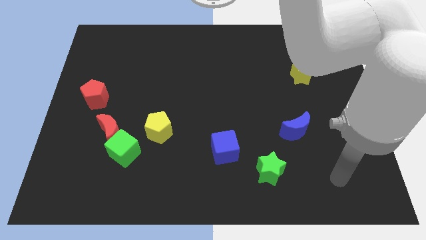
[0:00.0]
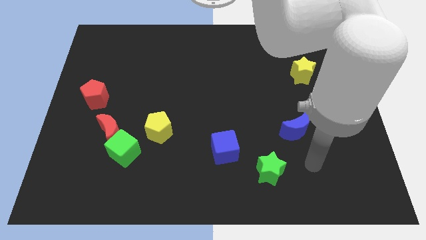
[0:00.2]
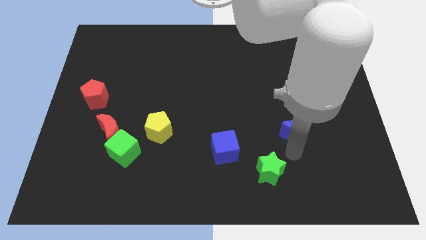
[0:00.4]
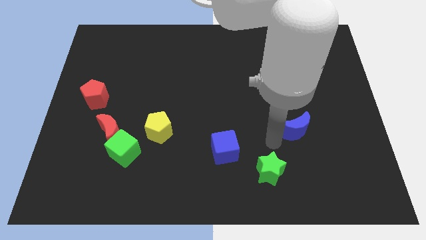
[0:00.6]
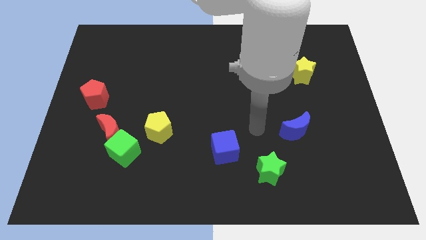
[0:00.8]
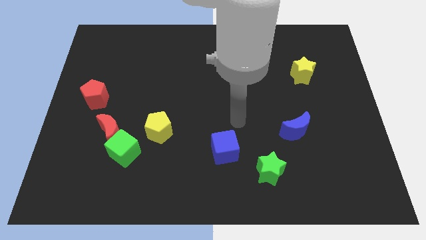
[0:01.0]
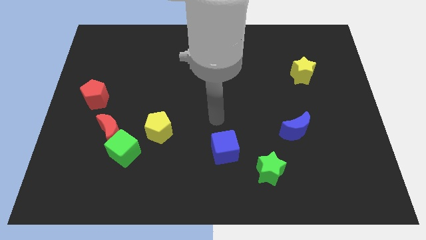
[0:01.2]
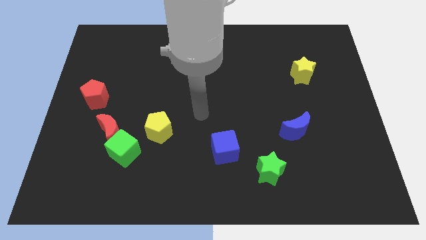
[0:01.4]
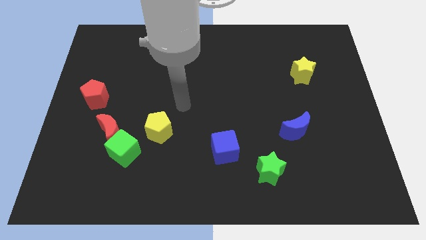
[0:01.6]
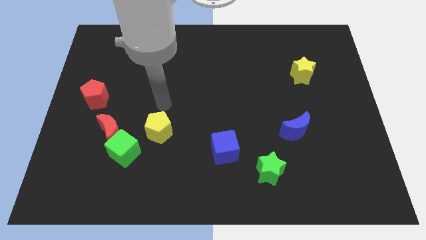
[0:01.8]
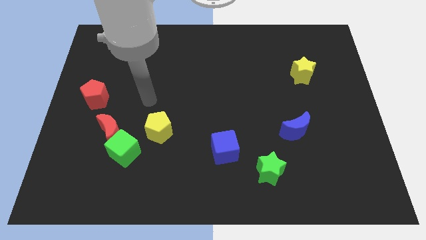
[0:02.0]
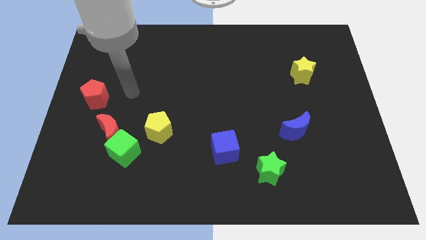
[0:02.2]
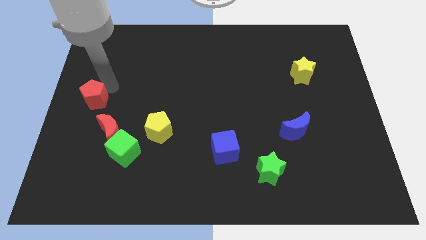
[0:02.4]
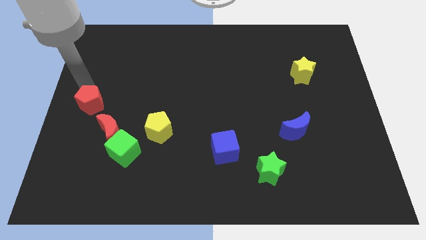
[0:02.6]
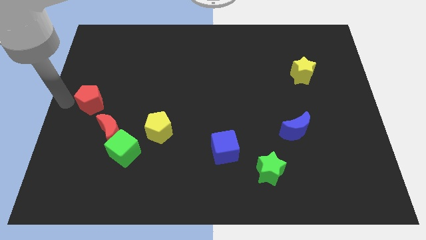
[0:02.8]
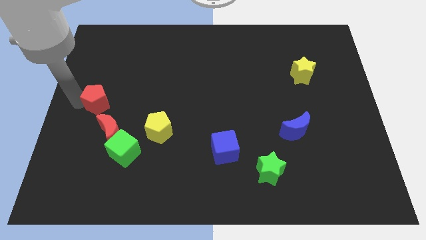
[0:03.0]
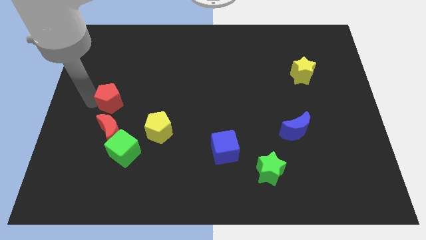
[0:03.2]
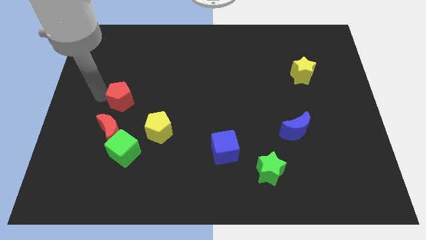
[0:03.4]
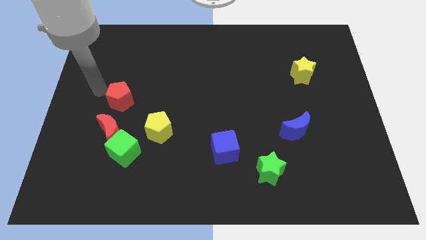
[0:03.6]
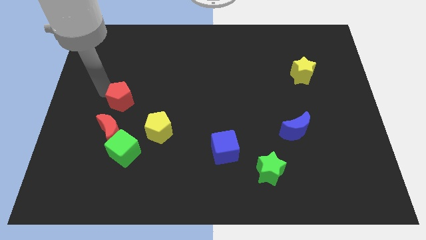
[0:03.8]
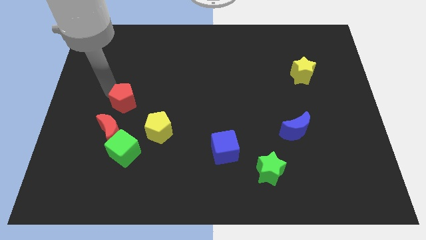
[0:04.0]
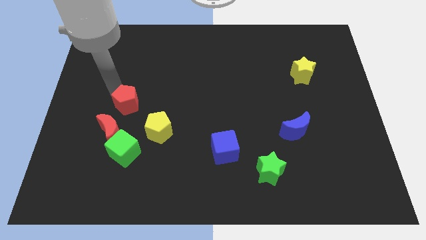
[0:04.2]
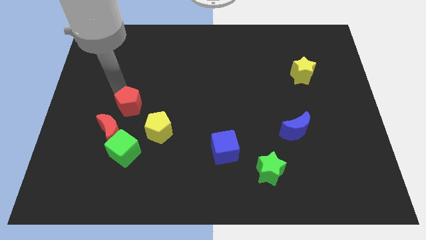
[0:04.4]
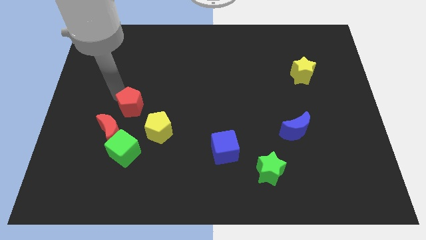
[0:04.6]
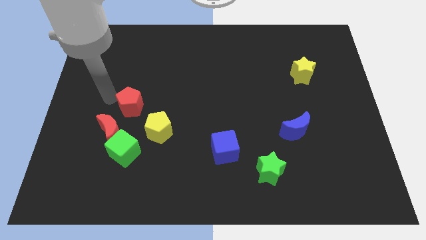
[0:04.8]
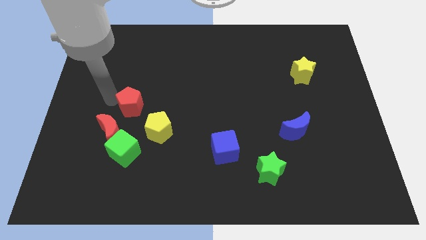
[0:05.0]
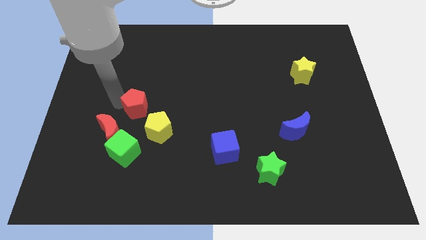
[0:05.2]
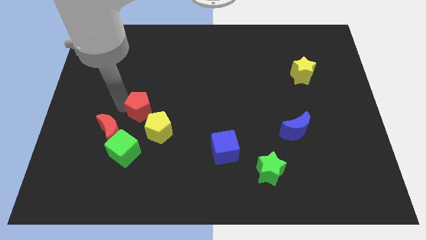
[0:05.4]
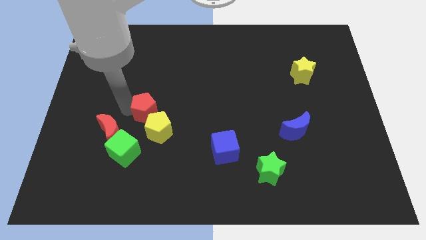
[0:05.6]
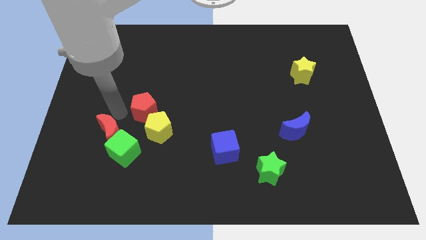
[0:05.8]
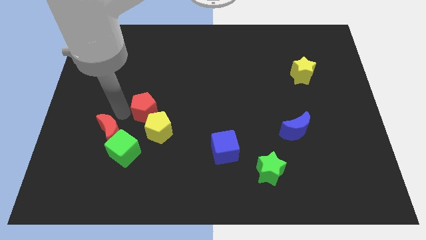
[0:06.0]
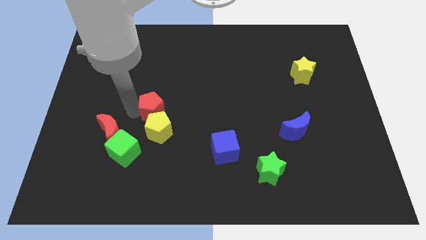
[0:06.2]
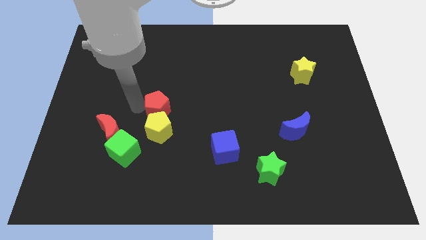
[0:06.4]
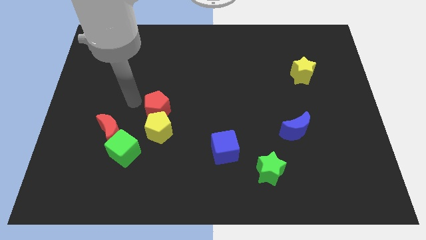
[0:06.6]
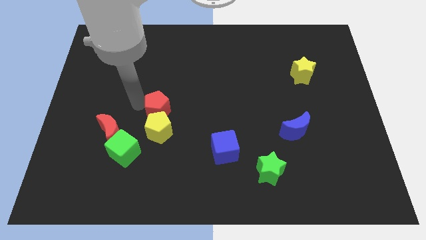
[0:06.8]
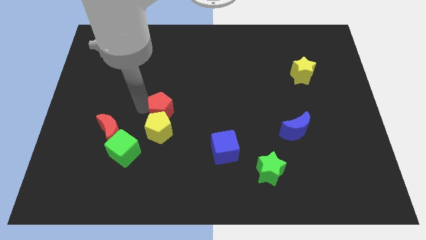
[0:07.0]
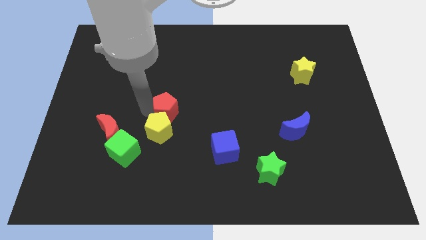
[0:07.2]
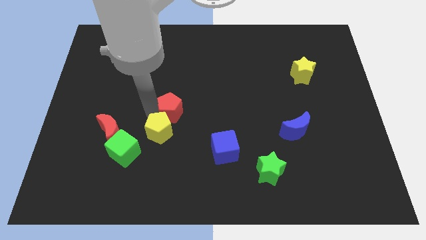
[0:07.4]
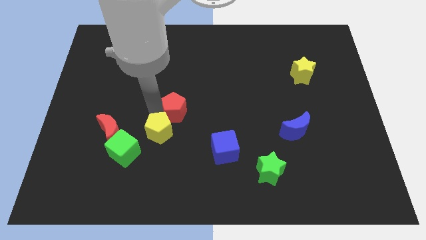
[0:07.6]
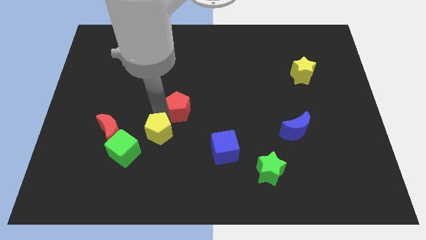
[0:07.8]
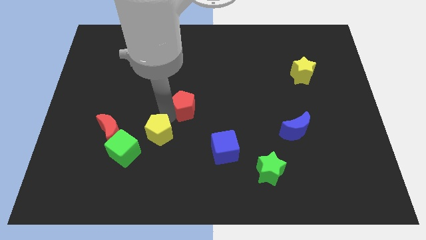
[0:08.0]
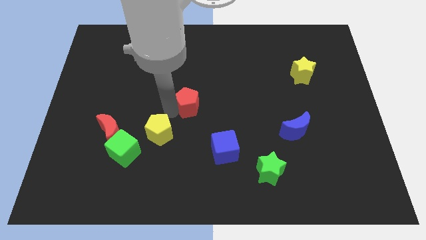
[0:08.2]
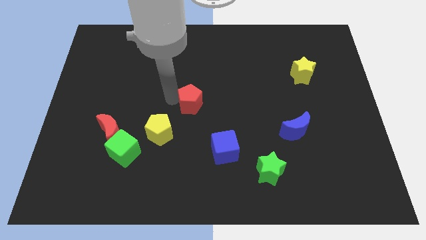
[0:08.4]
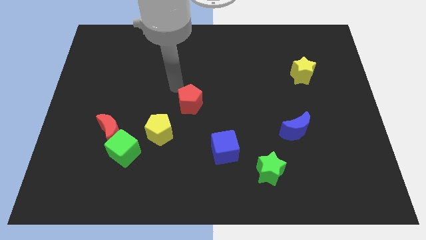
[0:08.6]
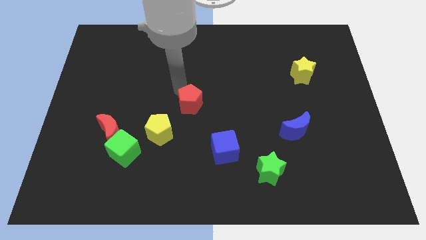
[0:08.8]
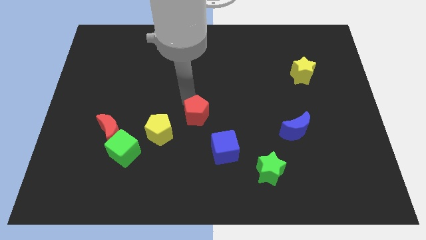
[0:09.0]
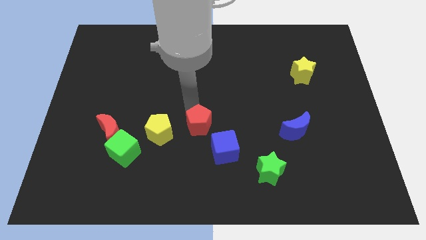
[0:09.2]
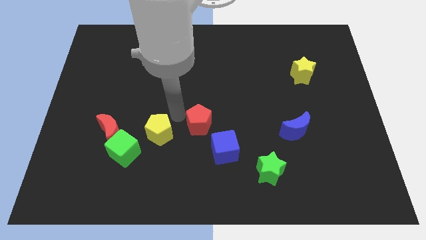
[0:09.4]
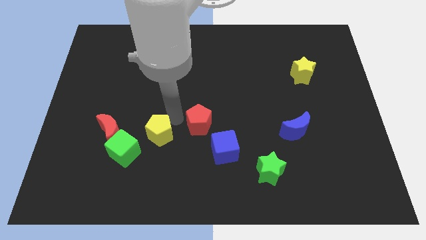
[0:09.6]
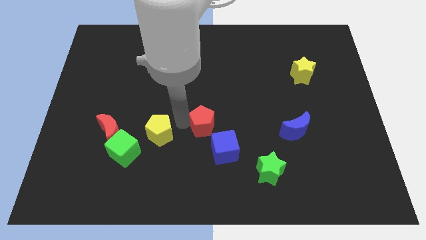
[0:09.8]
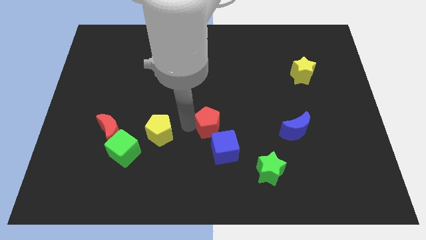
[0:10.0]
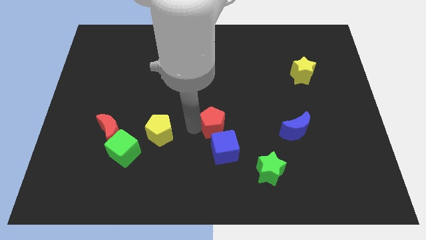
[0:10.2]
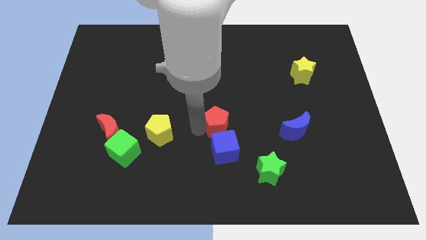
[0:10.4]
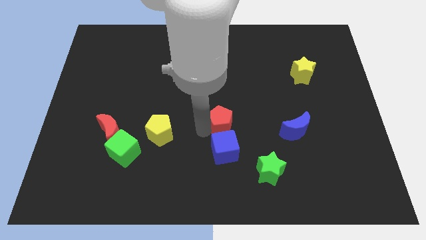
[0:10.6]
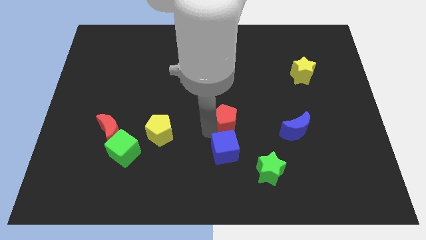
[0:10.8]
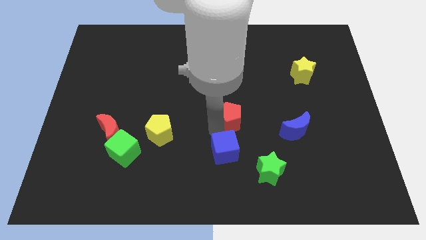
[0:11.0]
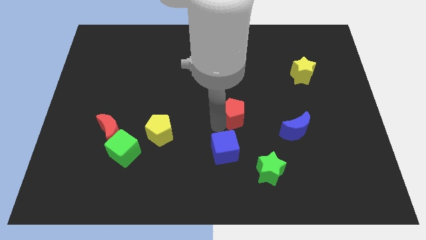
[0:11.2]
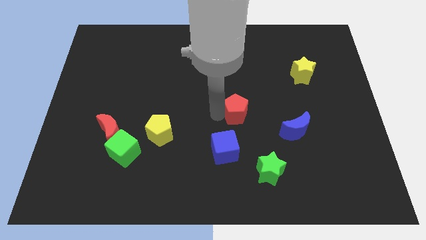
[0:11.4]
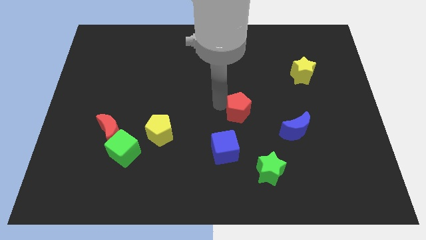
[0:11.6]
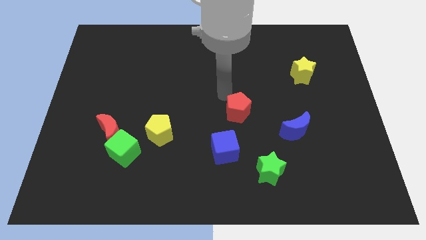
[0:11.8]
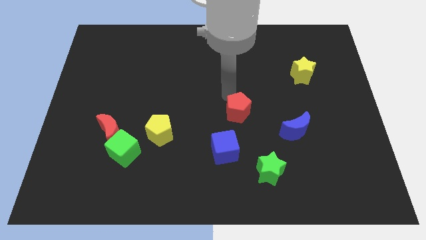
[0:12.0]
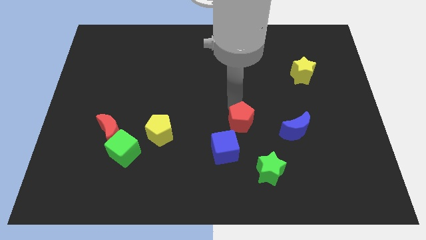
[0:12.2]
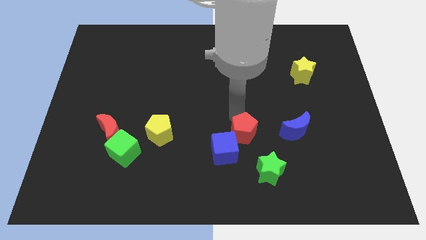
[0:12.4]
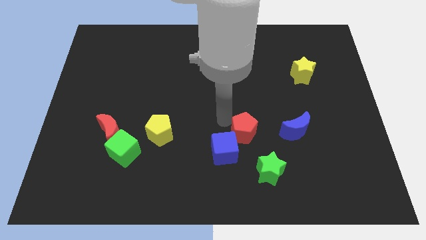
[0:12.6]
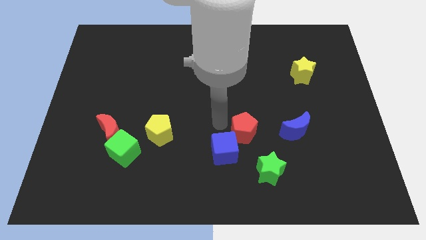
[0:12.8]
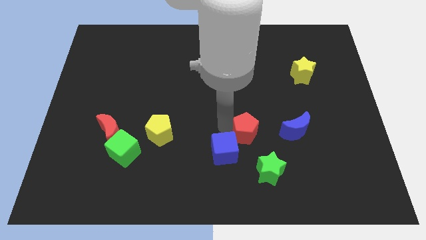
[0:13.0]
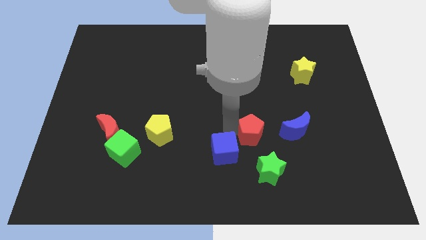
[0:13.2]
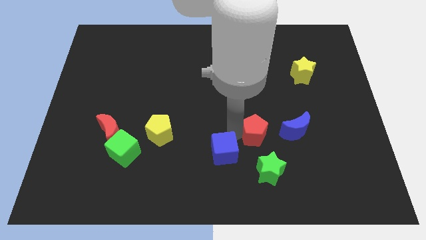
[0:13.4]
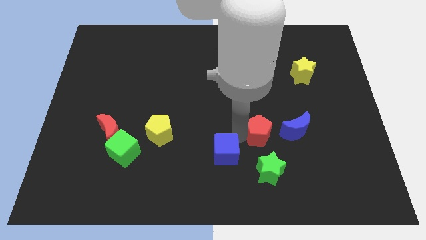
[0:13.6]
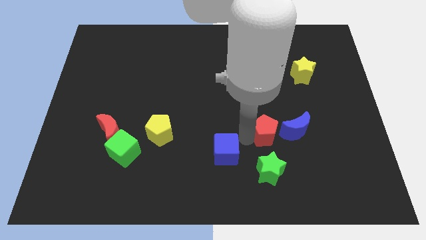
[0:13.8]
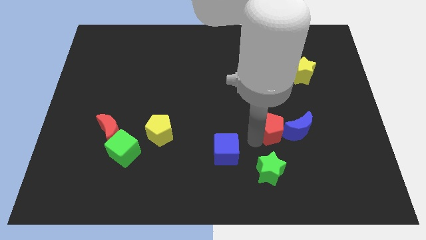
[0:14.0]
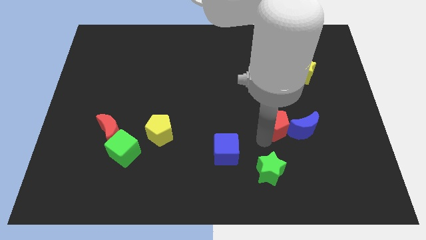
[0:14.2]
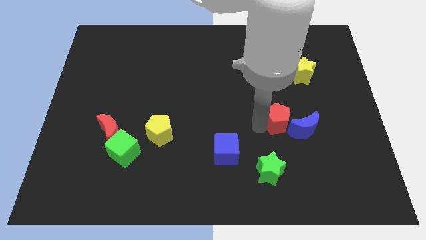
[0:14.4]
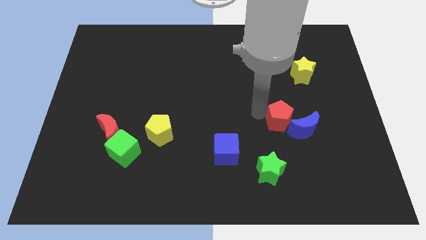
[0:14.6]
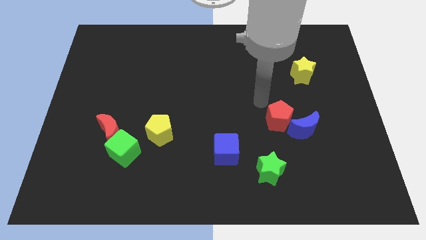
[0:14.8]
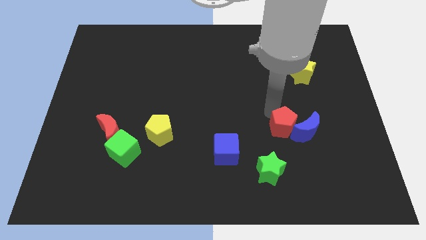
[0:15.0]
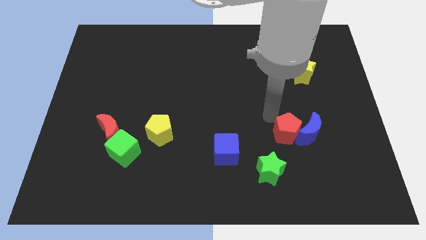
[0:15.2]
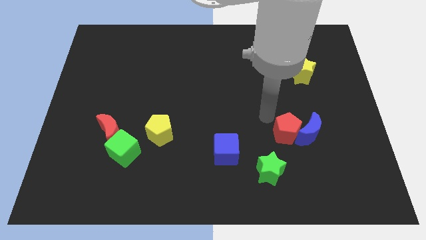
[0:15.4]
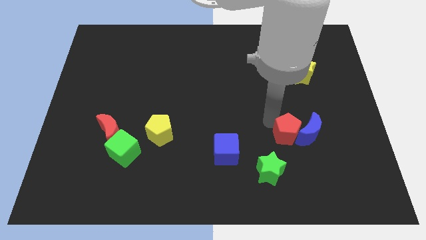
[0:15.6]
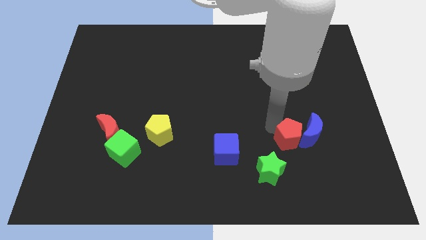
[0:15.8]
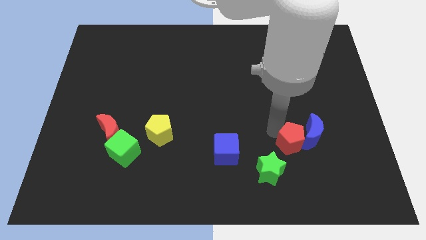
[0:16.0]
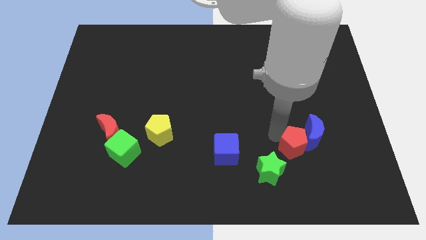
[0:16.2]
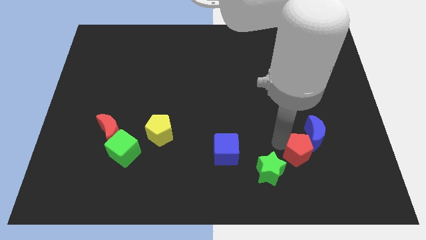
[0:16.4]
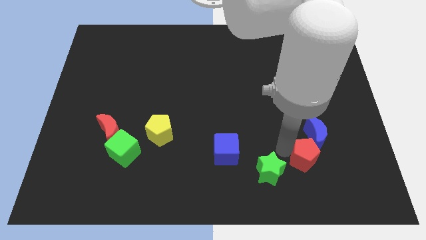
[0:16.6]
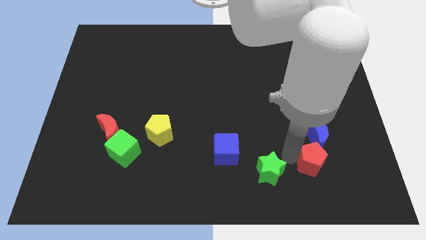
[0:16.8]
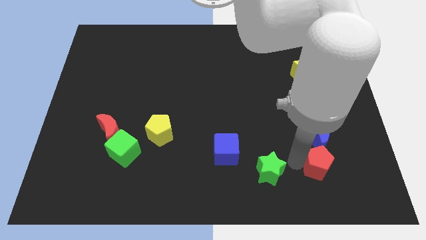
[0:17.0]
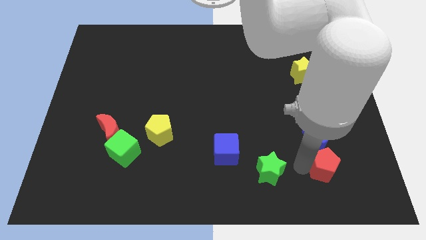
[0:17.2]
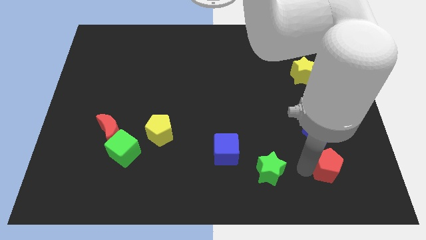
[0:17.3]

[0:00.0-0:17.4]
push the red pentagon diagonally down and to the right of the blue moon
